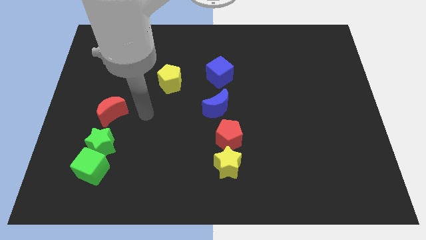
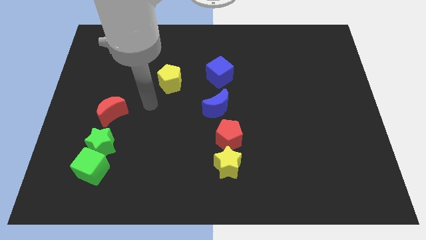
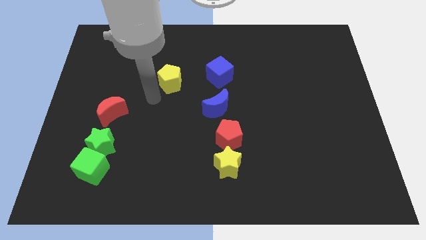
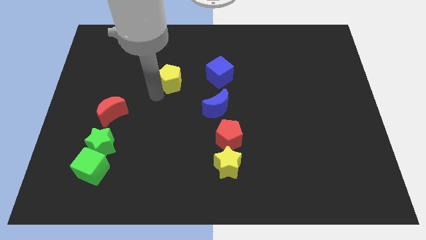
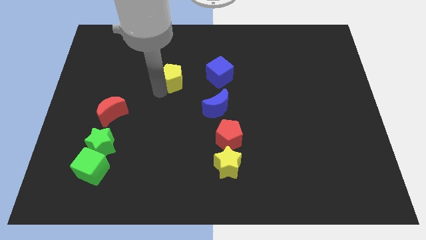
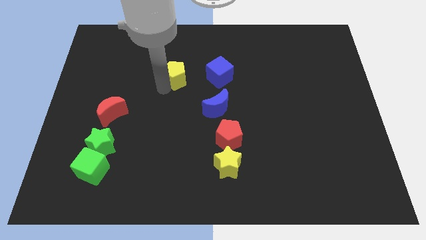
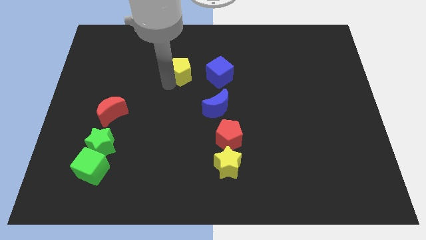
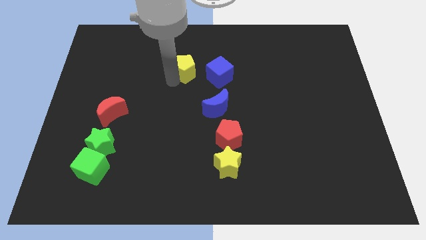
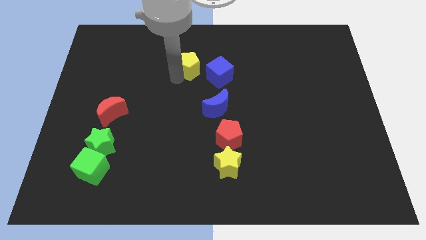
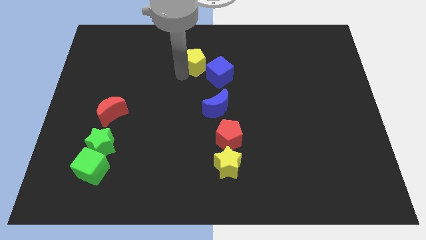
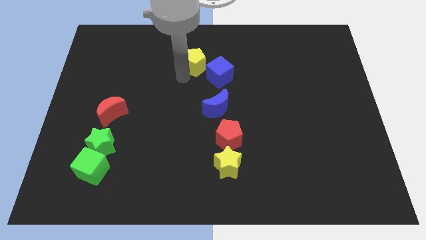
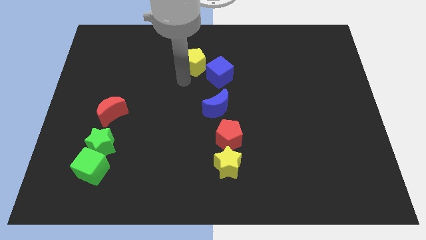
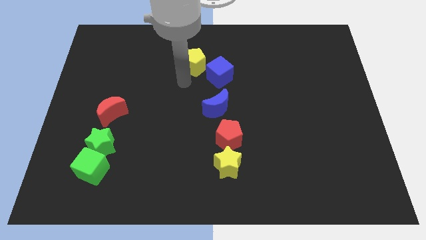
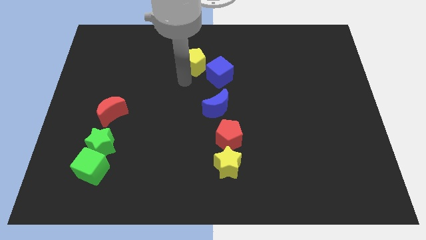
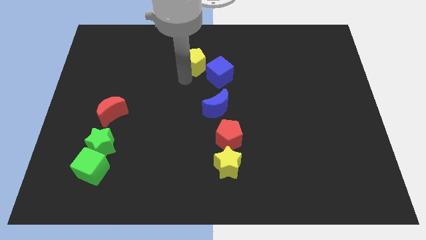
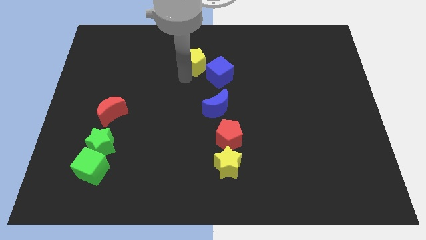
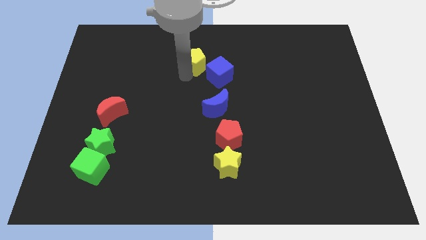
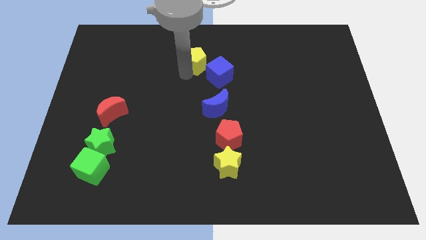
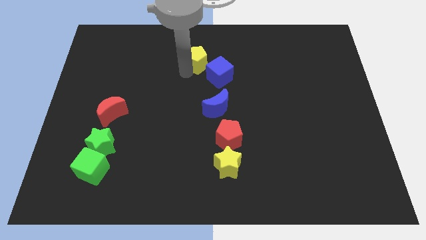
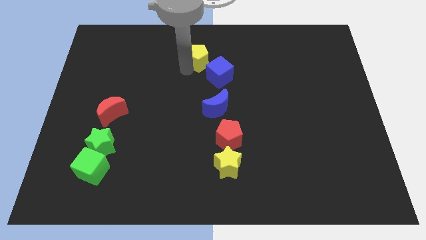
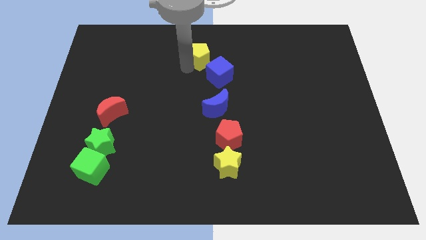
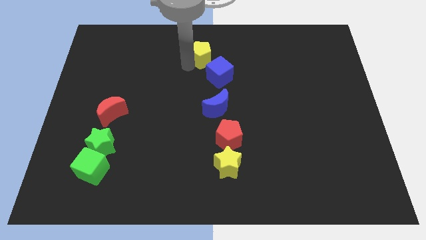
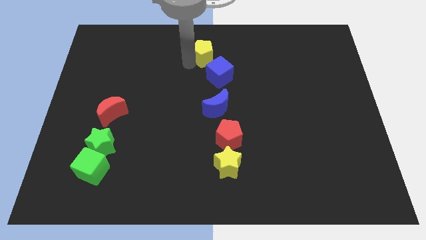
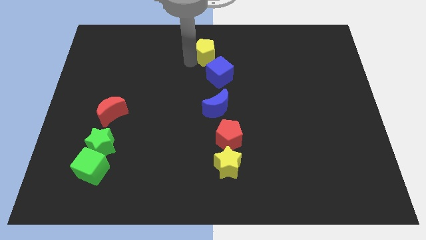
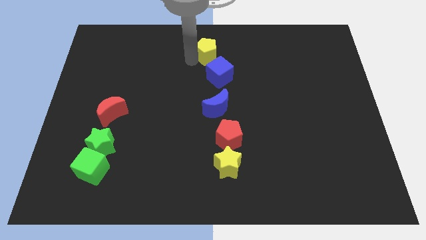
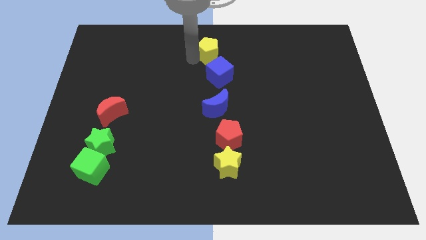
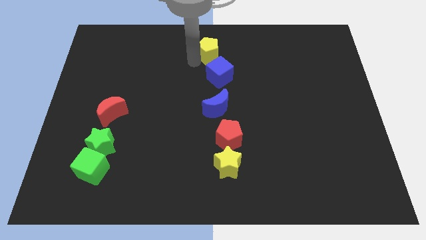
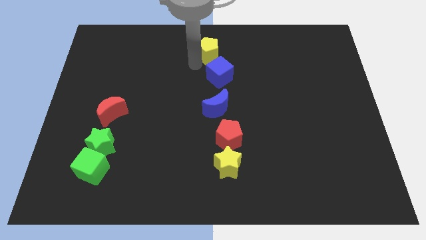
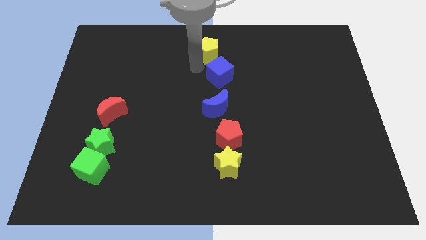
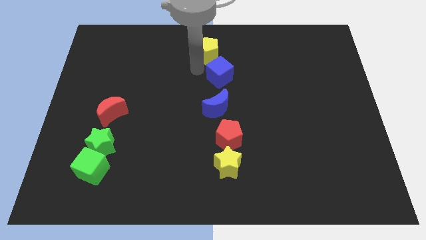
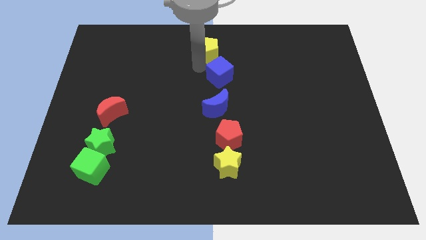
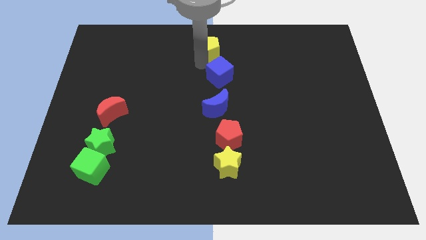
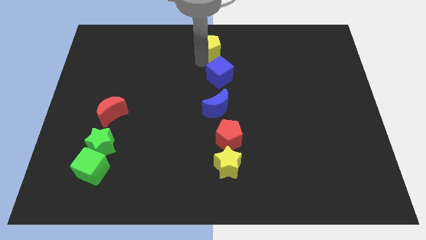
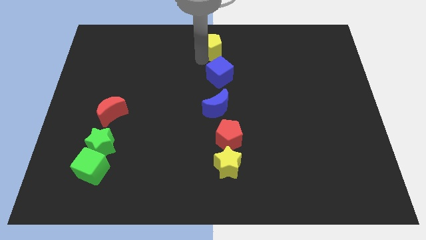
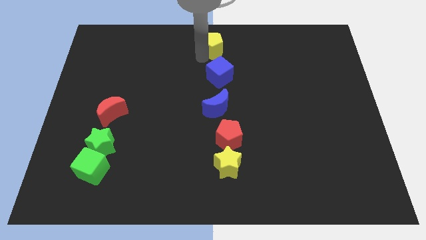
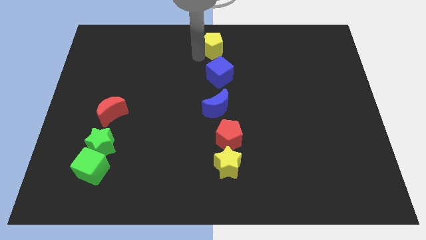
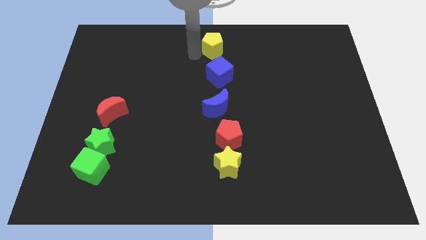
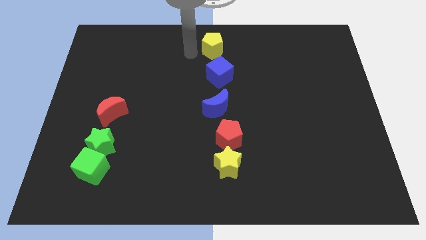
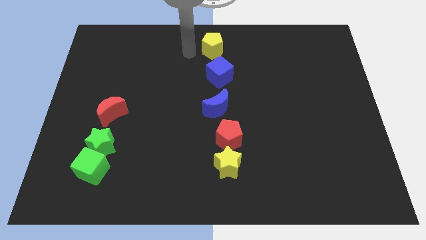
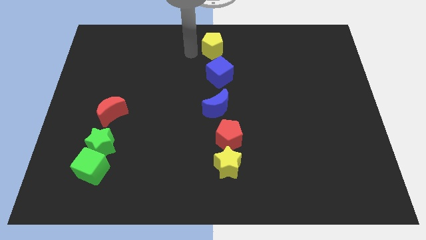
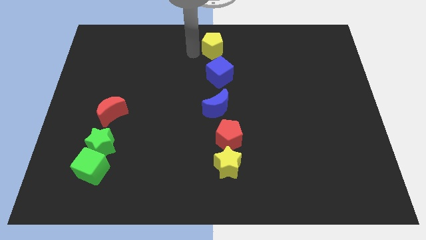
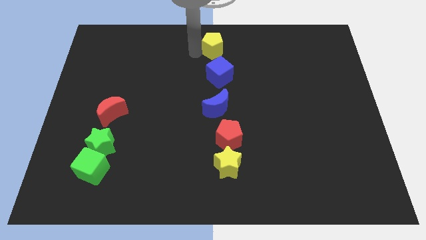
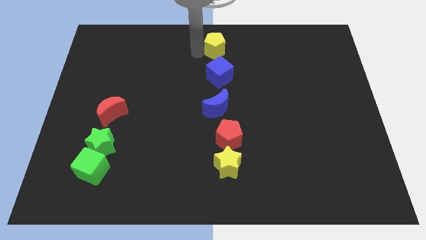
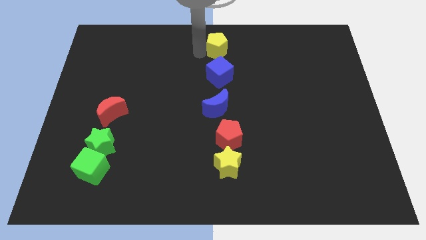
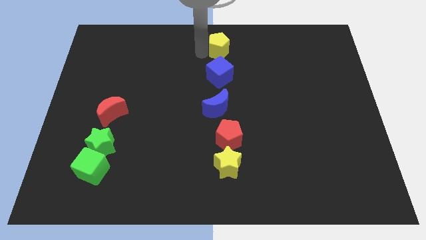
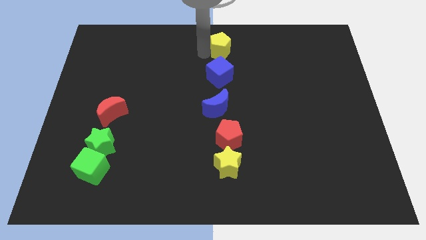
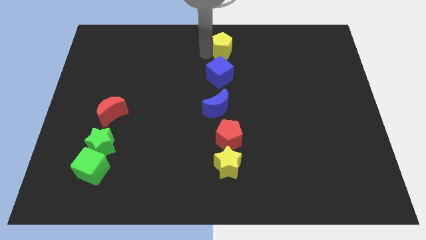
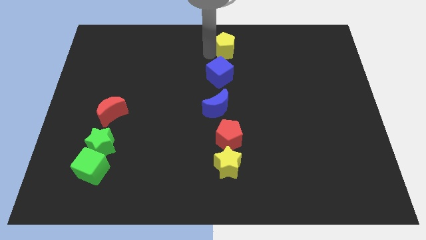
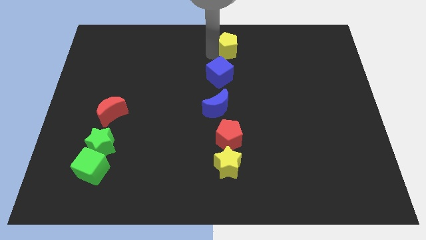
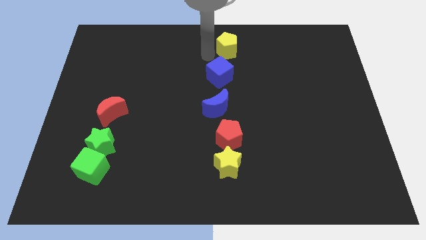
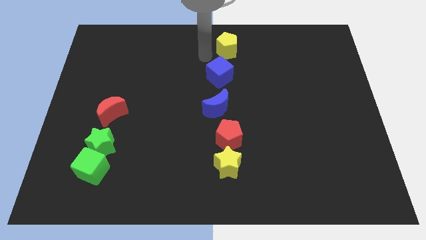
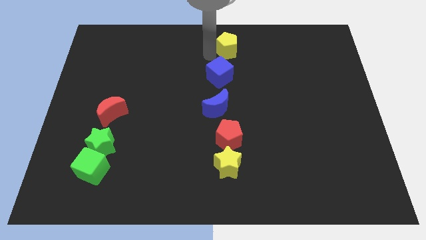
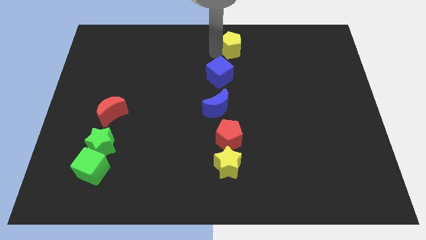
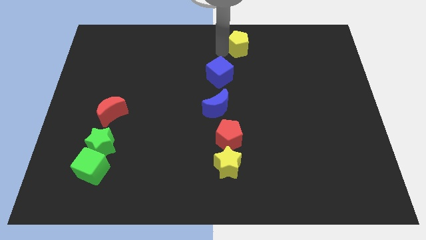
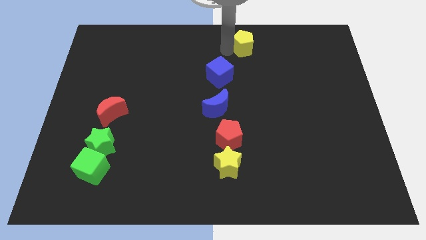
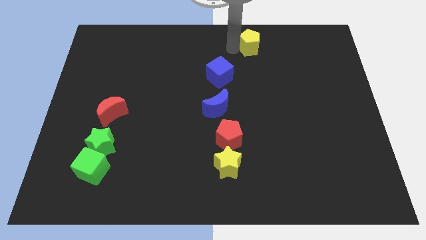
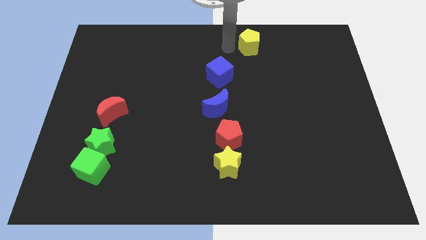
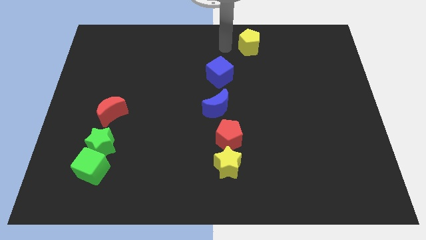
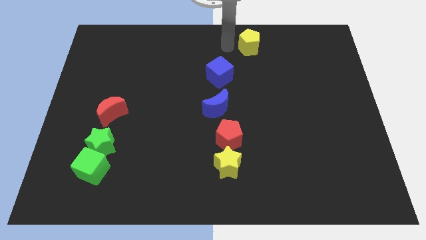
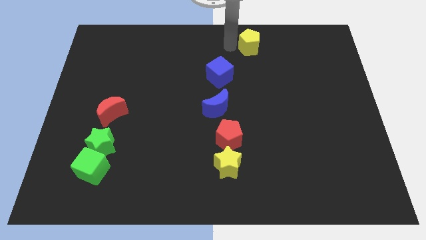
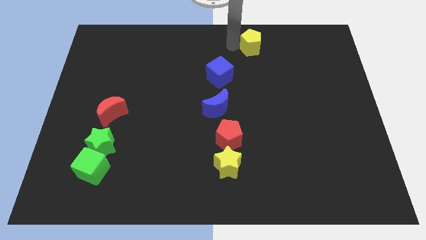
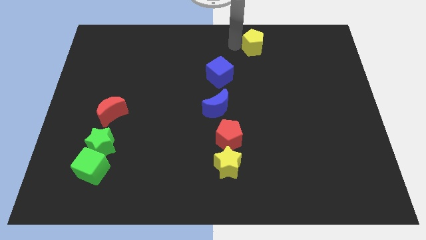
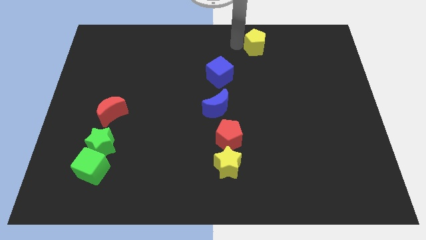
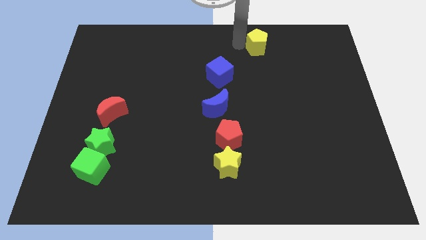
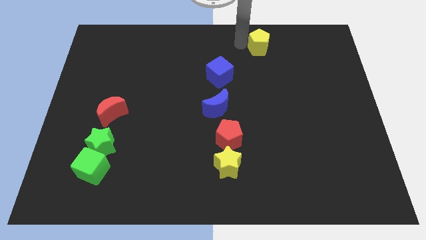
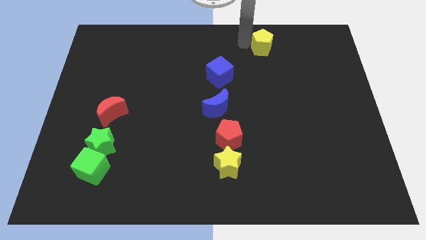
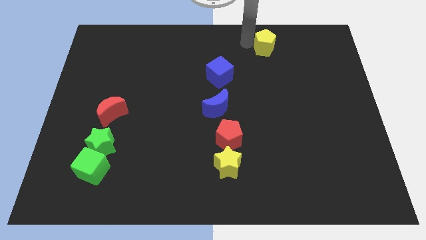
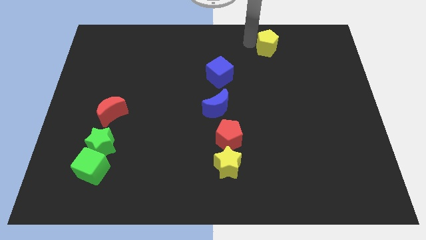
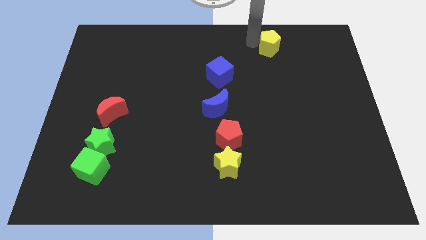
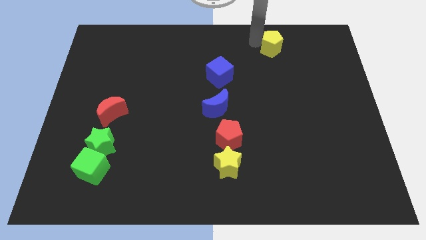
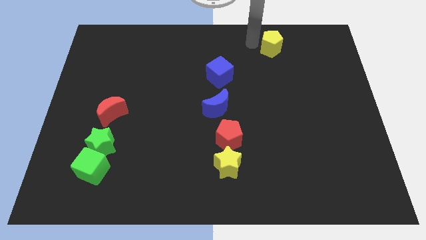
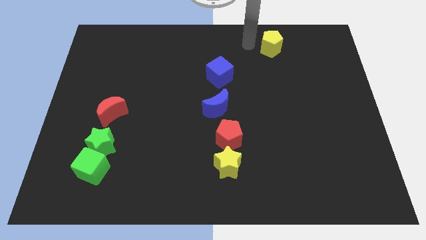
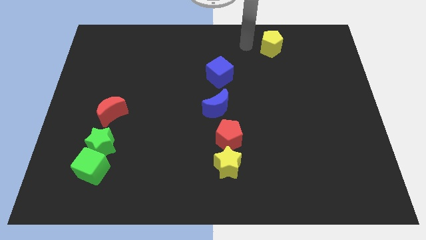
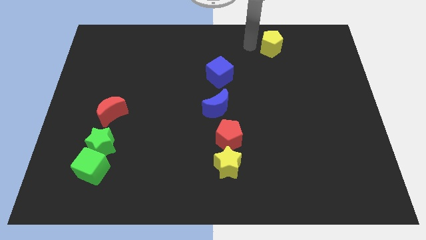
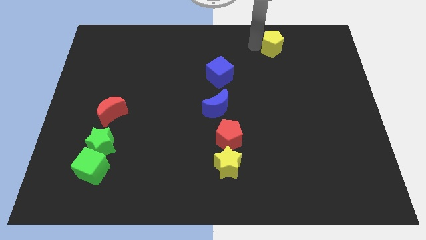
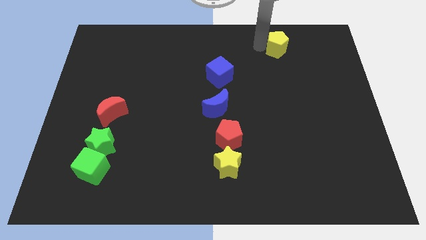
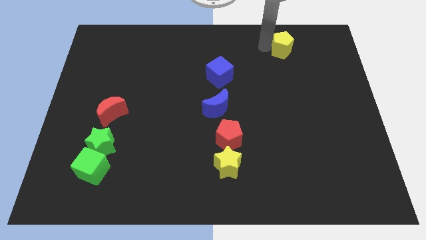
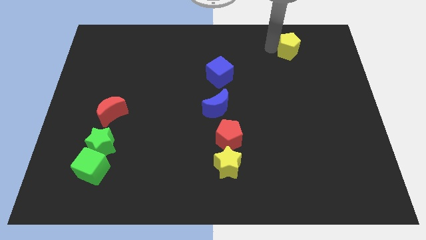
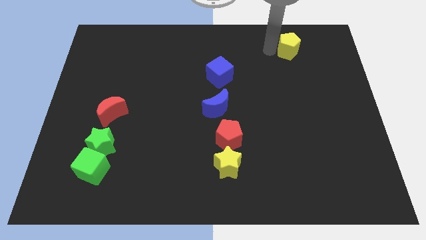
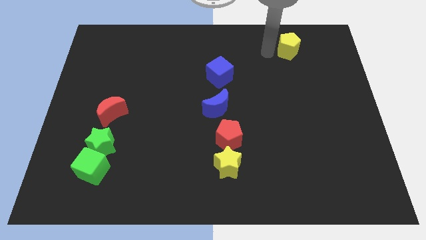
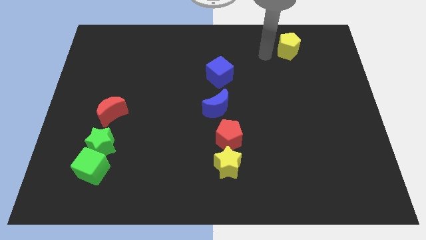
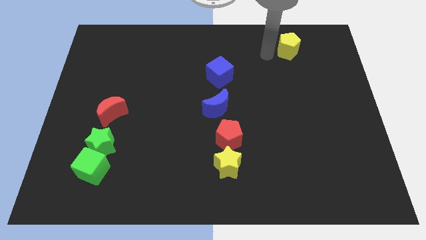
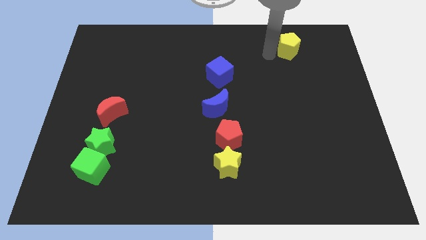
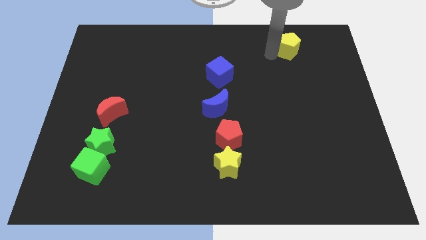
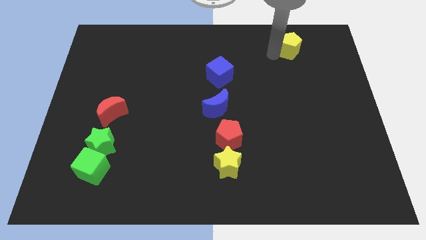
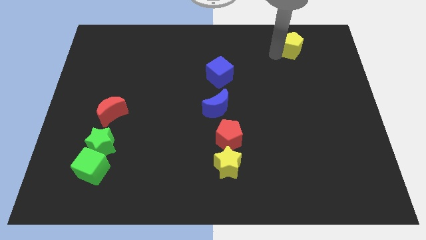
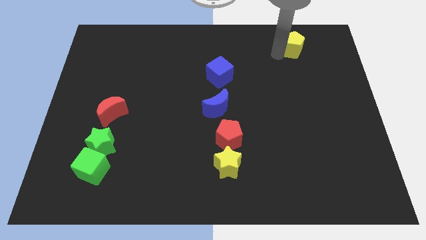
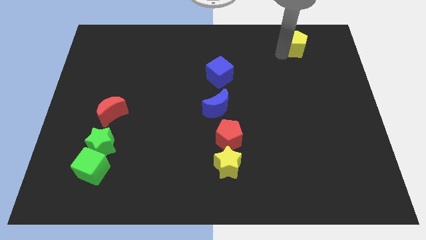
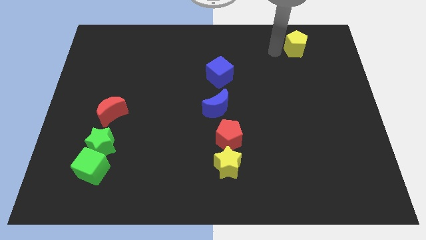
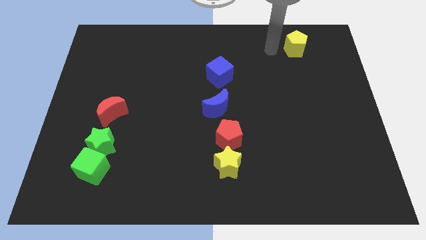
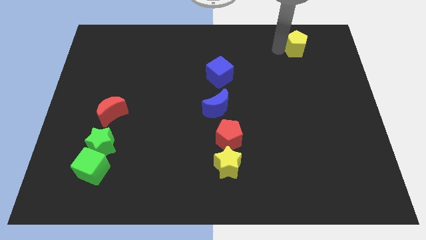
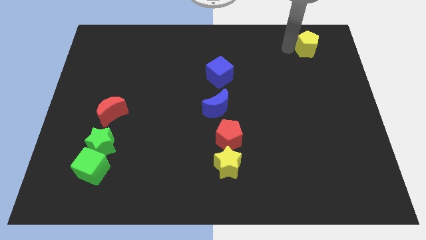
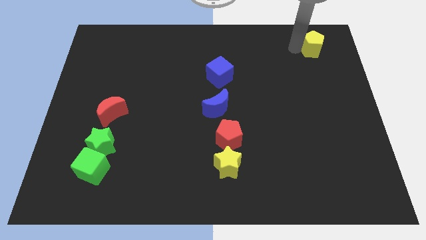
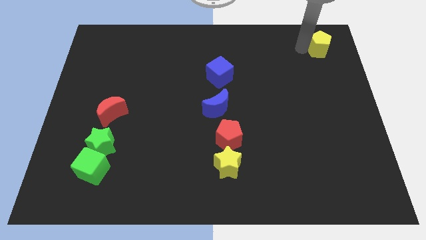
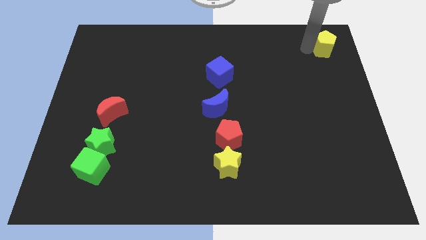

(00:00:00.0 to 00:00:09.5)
move the yellow pentagon to the top right corner
